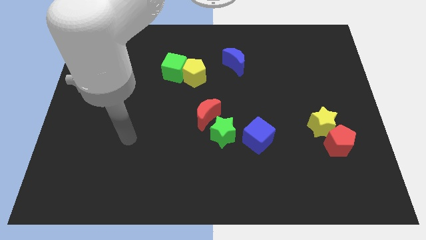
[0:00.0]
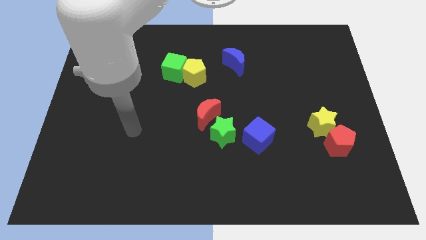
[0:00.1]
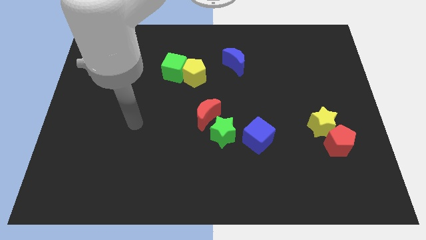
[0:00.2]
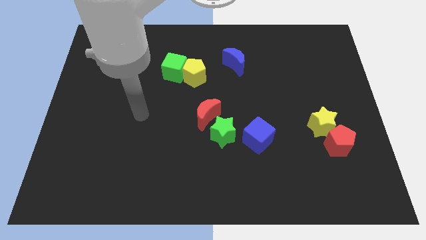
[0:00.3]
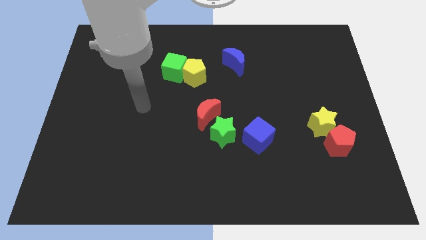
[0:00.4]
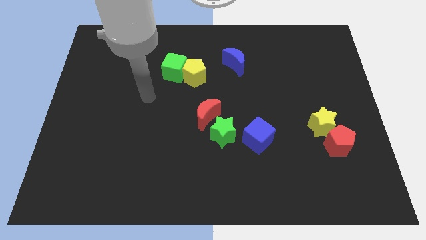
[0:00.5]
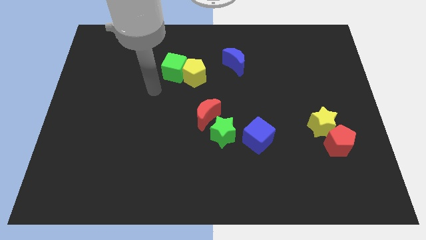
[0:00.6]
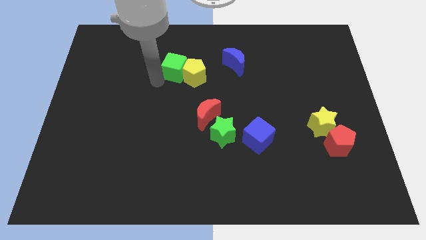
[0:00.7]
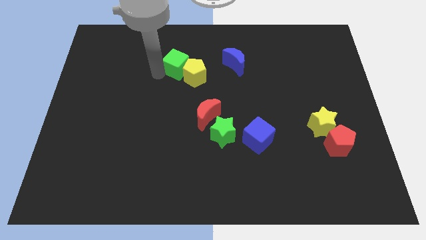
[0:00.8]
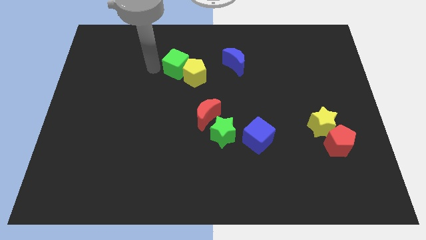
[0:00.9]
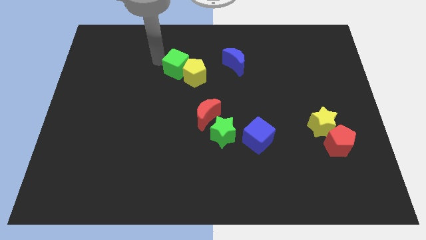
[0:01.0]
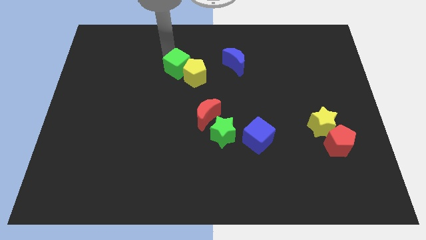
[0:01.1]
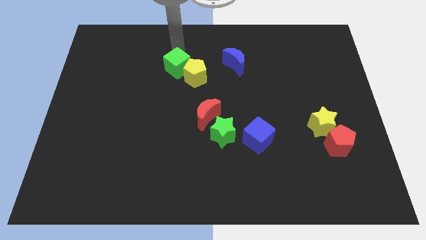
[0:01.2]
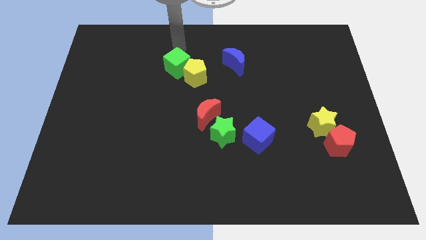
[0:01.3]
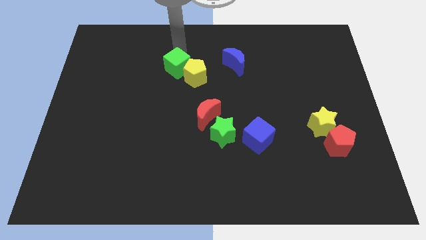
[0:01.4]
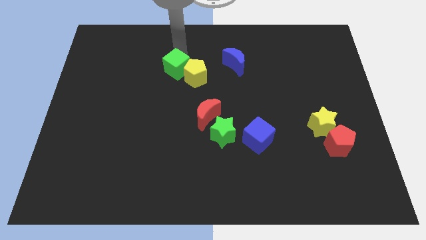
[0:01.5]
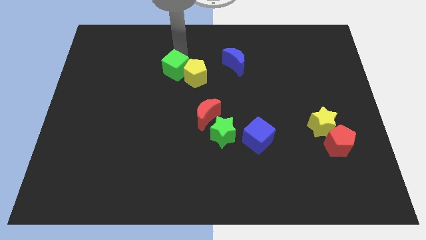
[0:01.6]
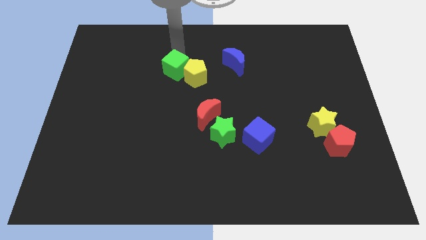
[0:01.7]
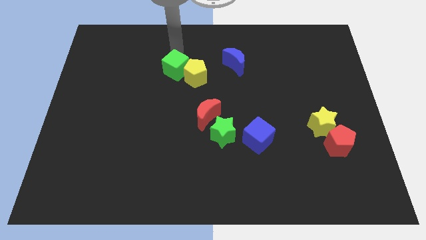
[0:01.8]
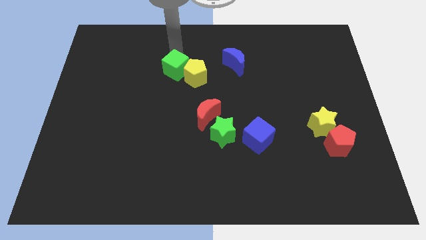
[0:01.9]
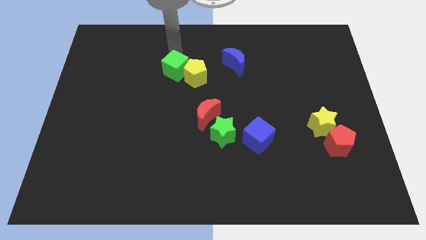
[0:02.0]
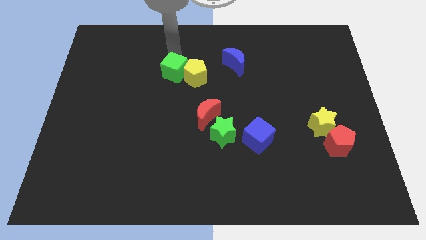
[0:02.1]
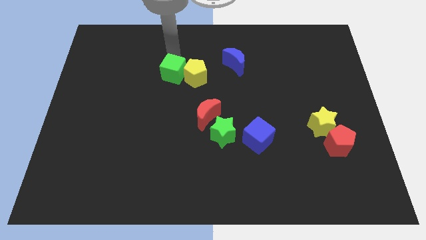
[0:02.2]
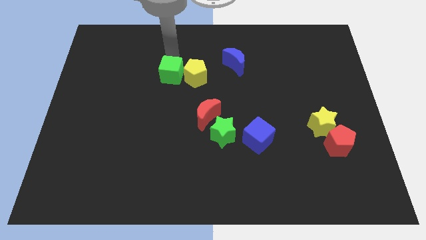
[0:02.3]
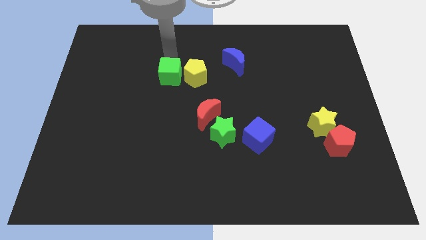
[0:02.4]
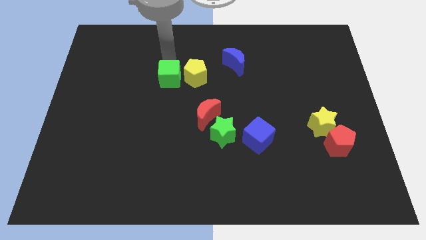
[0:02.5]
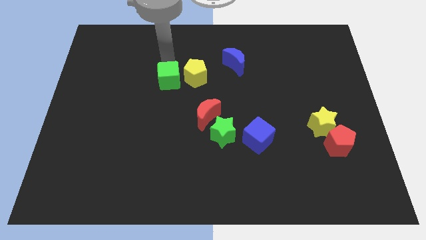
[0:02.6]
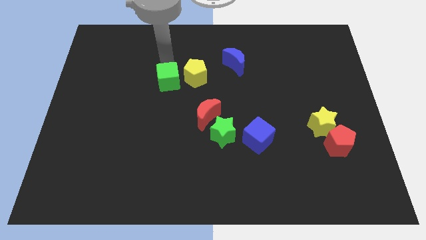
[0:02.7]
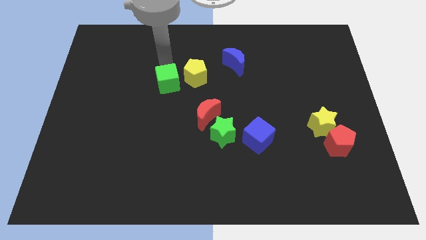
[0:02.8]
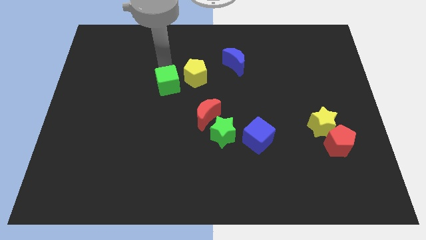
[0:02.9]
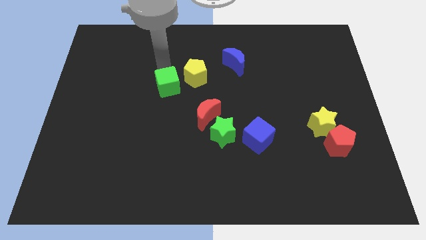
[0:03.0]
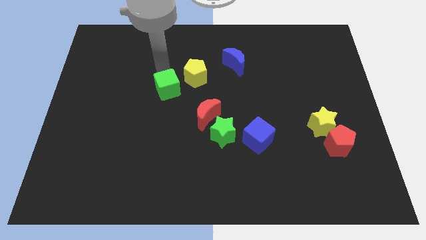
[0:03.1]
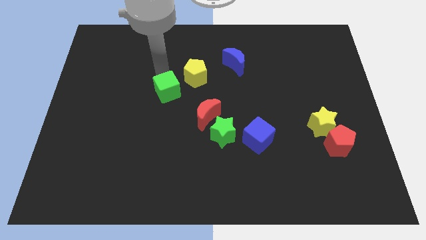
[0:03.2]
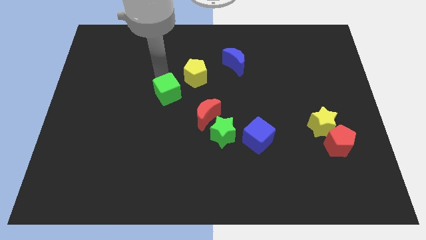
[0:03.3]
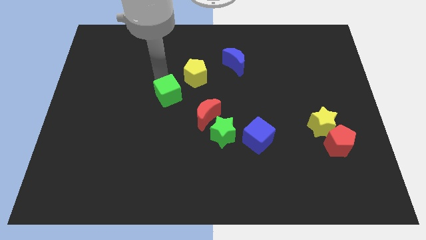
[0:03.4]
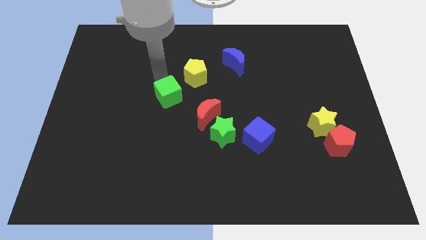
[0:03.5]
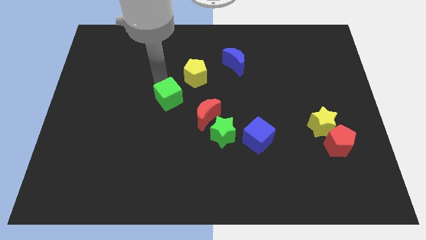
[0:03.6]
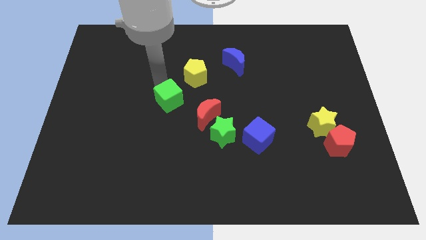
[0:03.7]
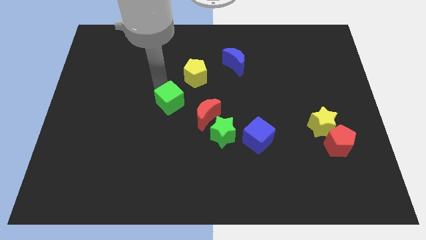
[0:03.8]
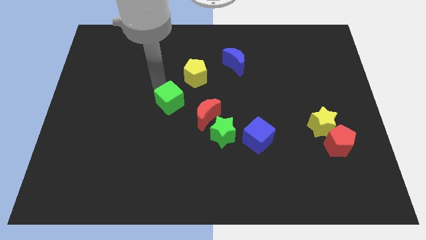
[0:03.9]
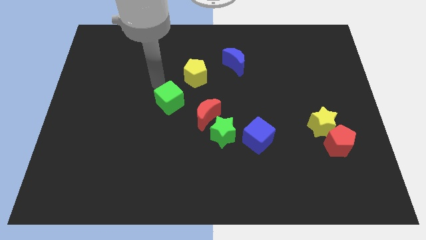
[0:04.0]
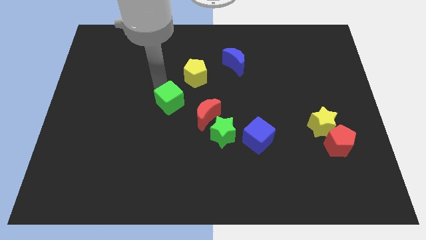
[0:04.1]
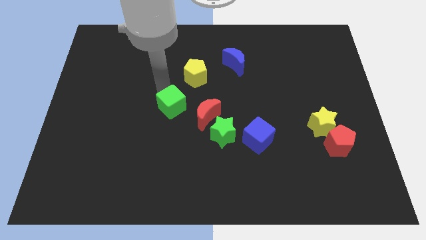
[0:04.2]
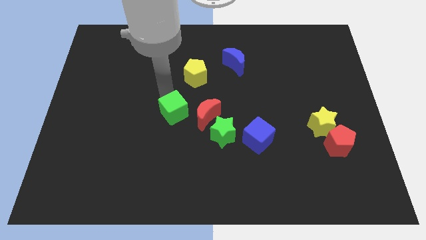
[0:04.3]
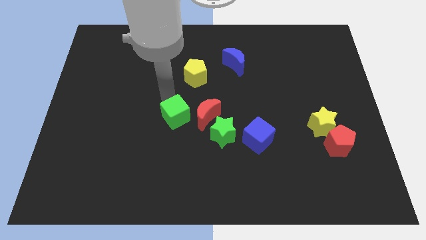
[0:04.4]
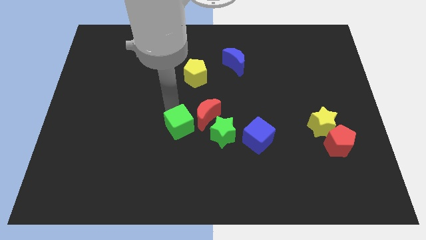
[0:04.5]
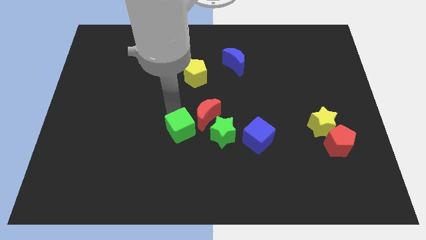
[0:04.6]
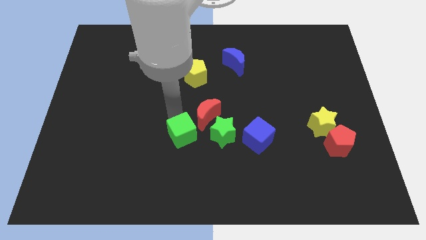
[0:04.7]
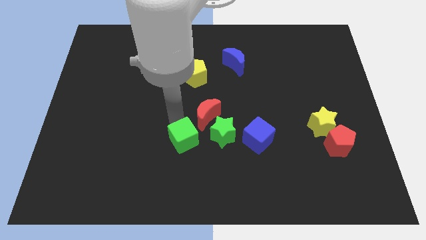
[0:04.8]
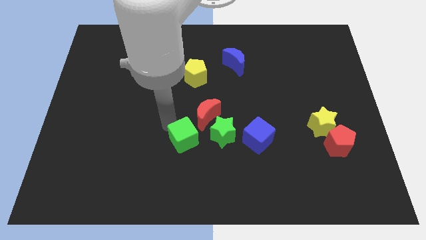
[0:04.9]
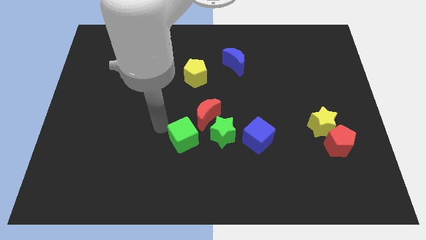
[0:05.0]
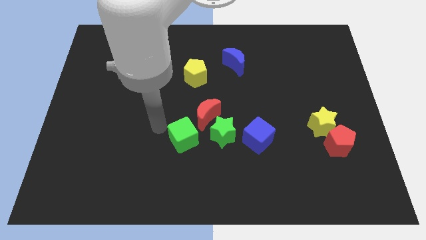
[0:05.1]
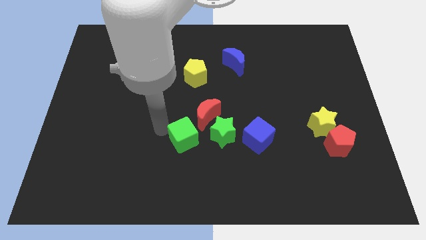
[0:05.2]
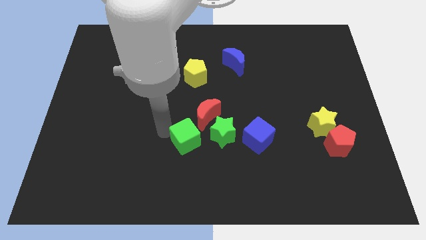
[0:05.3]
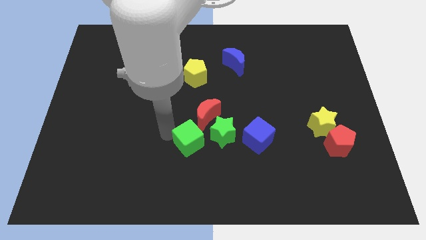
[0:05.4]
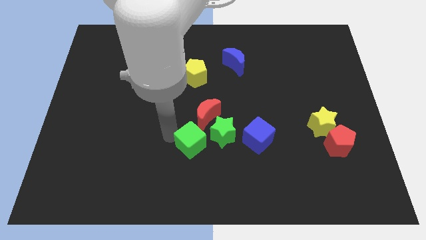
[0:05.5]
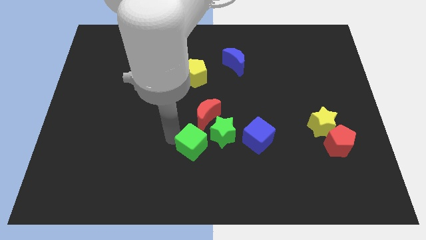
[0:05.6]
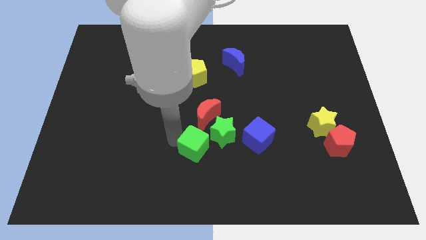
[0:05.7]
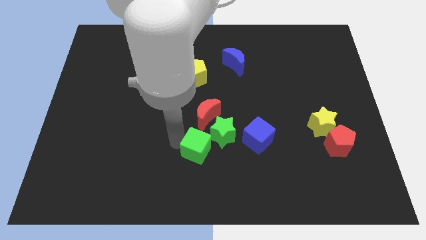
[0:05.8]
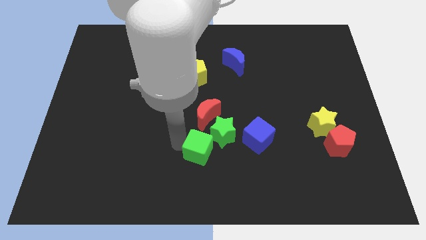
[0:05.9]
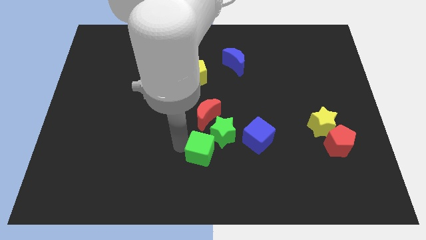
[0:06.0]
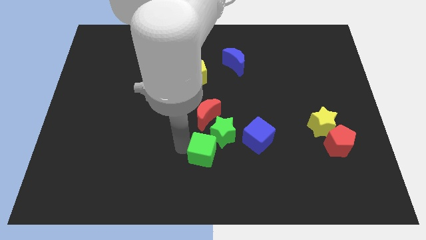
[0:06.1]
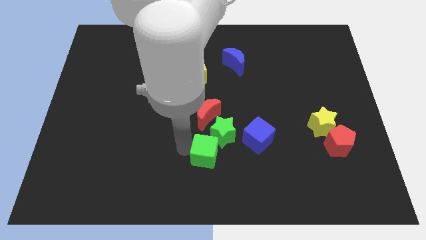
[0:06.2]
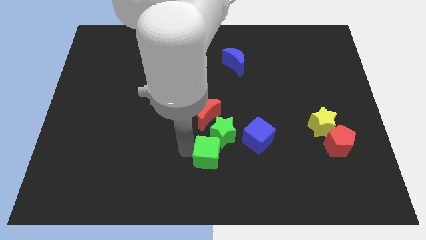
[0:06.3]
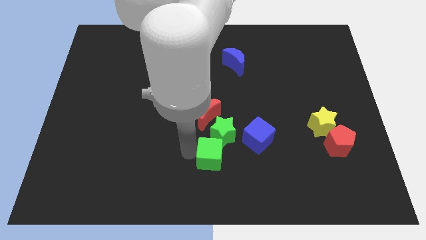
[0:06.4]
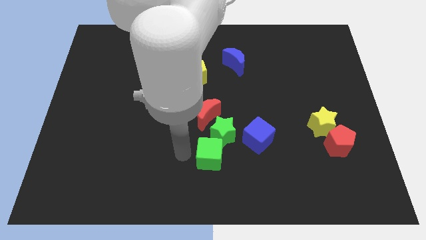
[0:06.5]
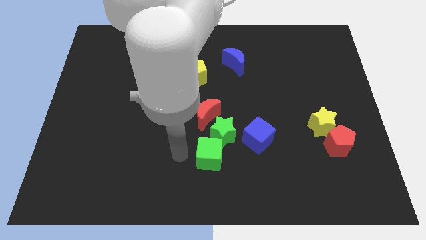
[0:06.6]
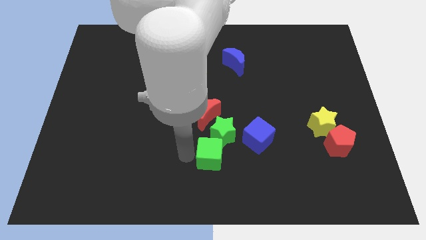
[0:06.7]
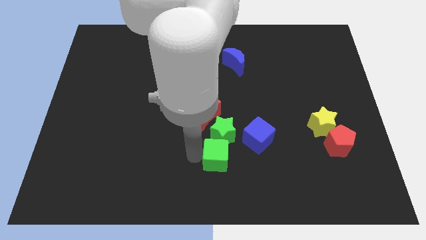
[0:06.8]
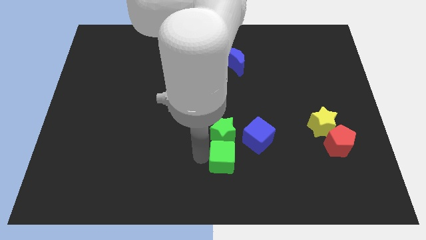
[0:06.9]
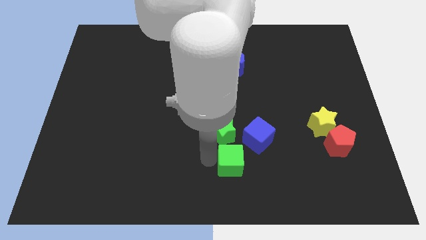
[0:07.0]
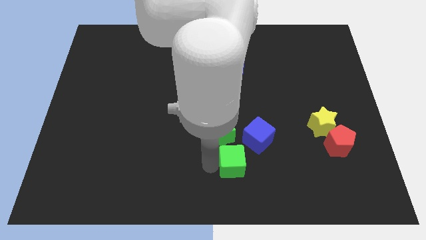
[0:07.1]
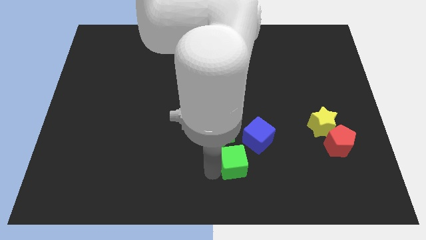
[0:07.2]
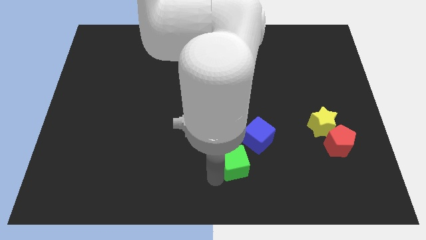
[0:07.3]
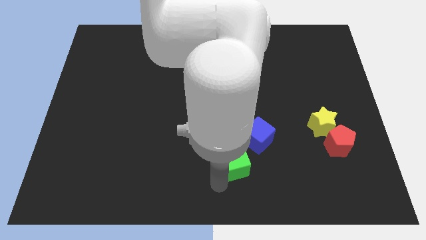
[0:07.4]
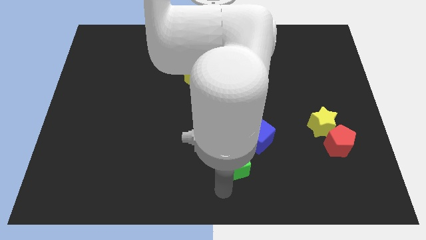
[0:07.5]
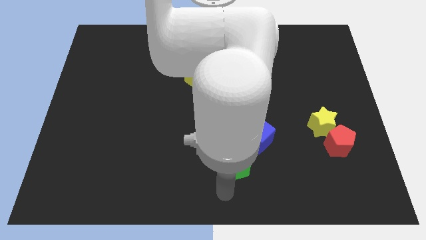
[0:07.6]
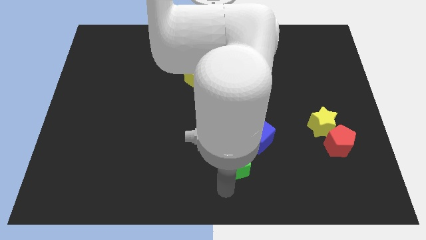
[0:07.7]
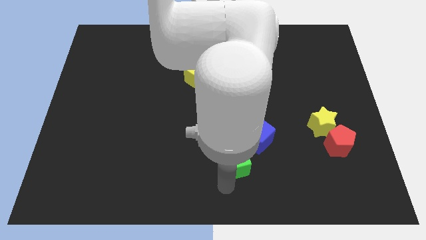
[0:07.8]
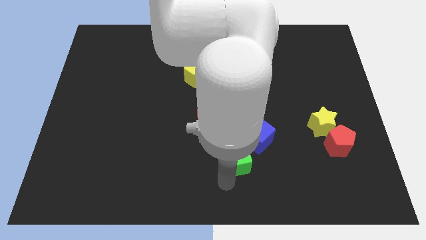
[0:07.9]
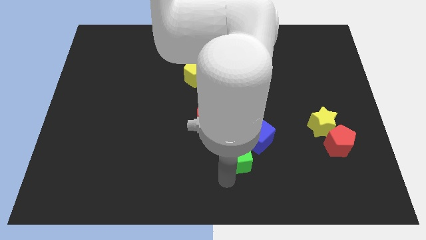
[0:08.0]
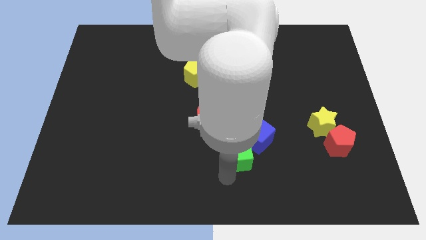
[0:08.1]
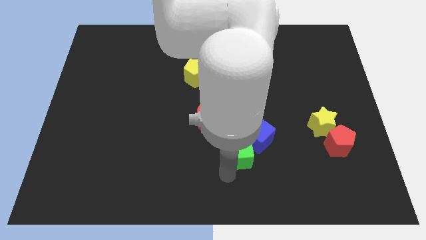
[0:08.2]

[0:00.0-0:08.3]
put the green cube to the bottom right of the red moon
